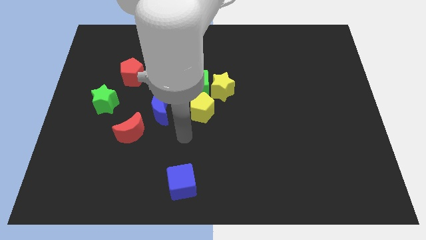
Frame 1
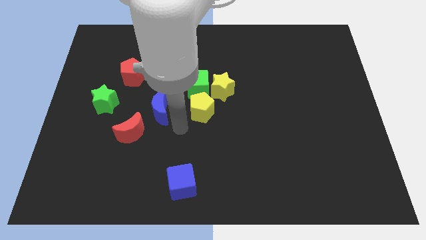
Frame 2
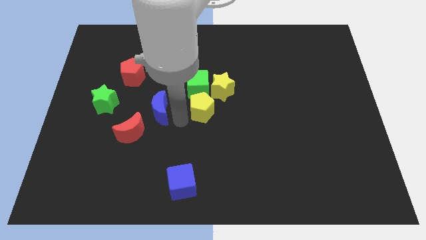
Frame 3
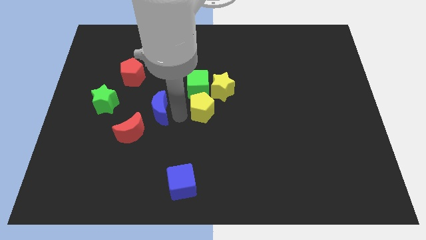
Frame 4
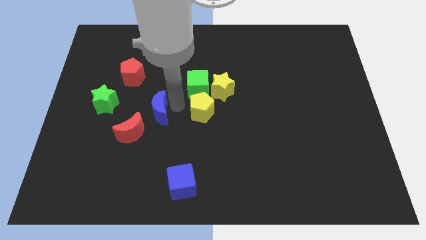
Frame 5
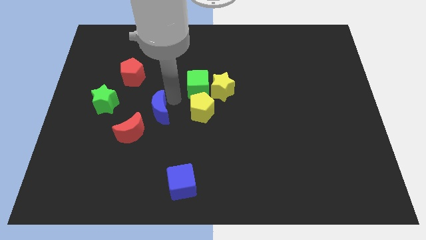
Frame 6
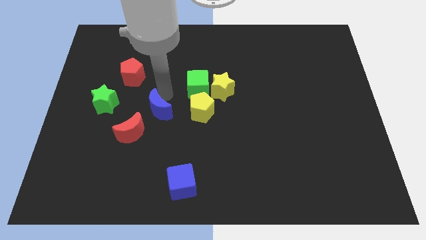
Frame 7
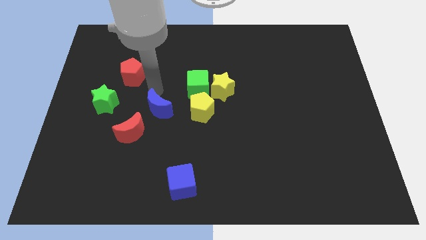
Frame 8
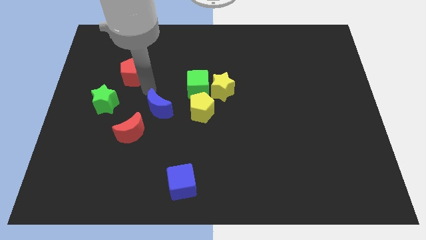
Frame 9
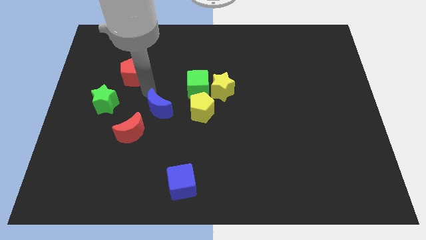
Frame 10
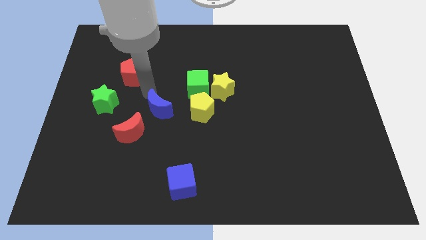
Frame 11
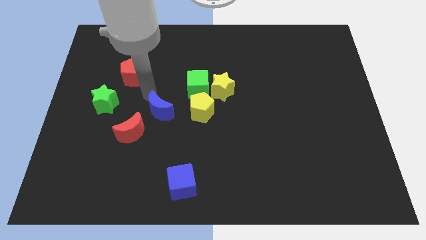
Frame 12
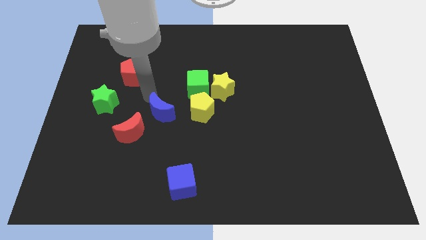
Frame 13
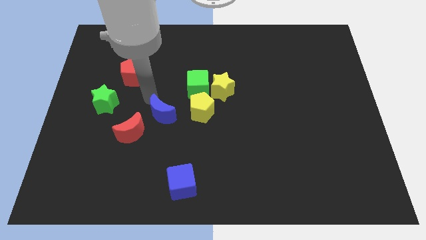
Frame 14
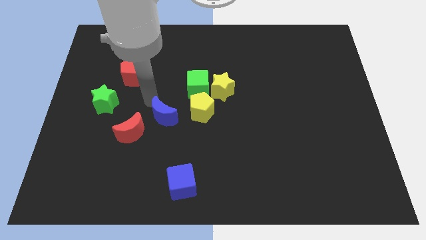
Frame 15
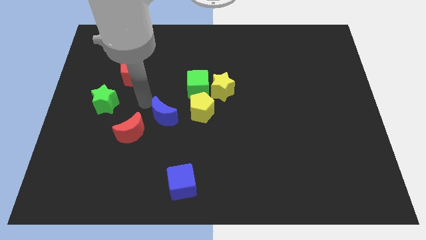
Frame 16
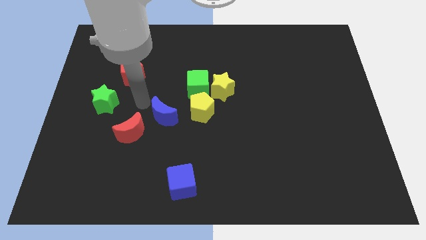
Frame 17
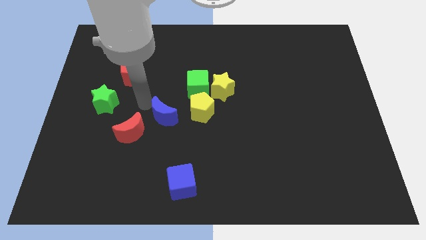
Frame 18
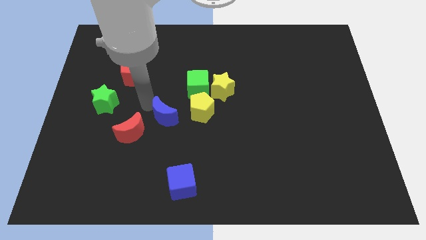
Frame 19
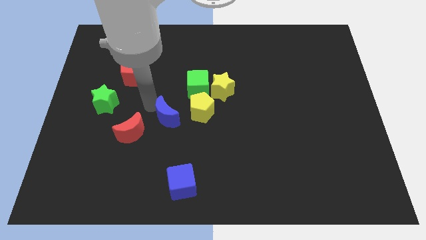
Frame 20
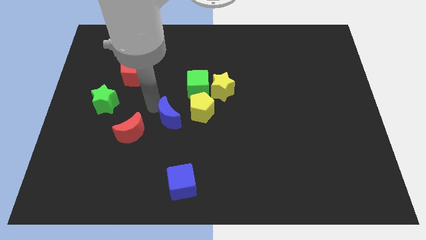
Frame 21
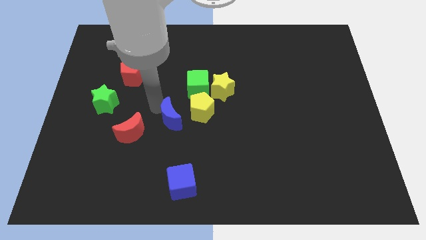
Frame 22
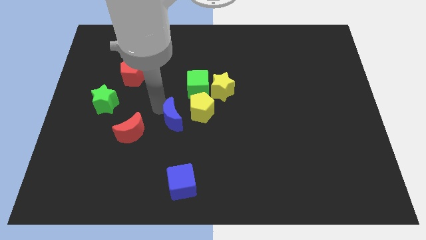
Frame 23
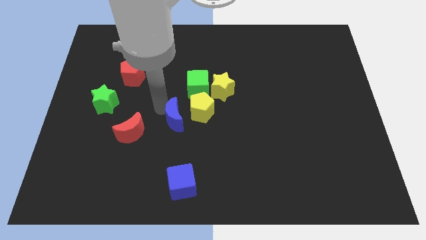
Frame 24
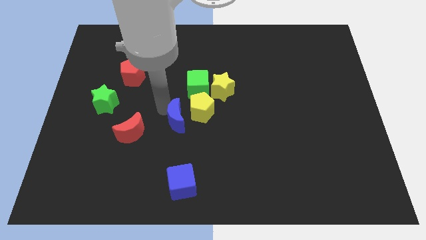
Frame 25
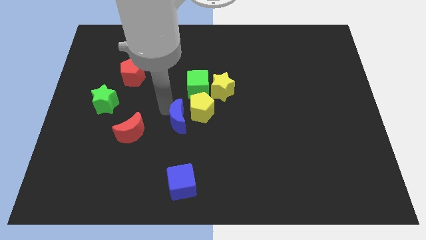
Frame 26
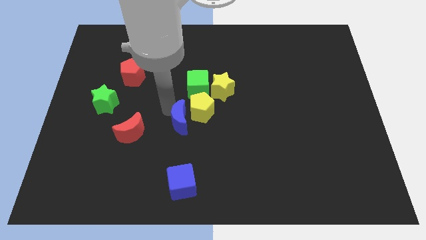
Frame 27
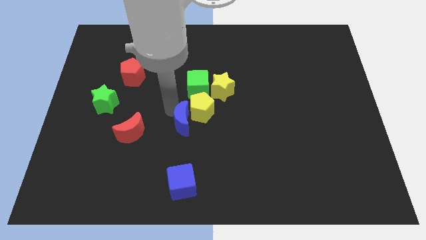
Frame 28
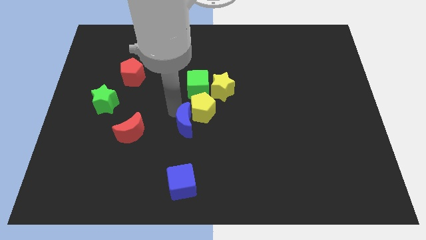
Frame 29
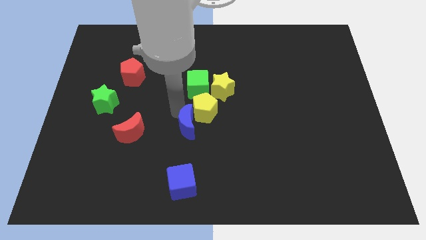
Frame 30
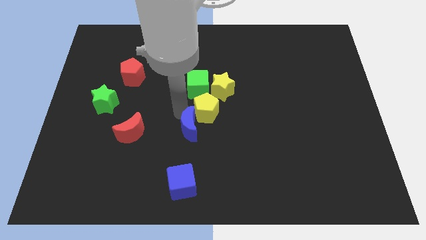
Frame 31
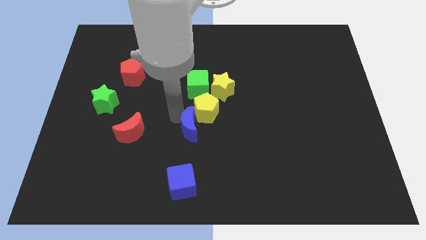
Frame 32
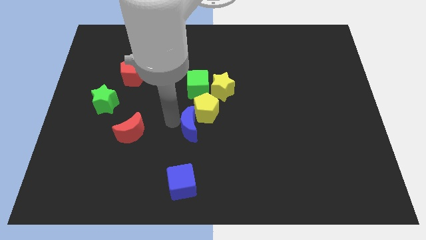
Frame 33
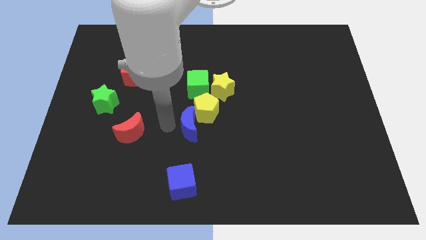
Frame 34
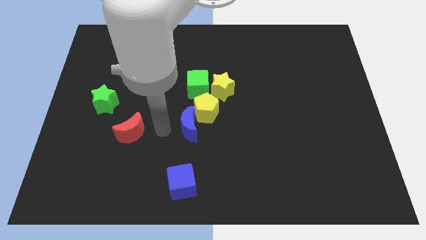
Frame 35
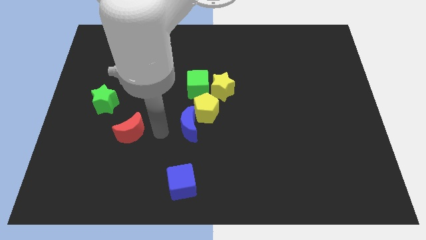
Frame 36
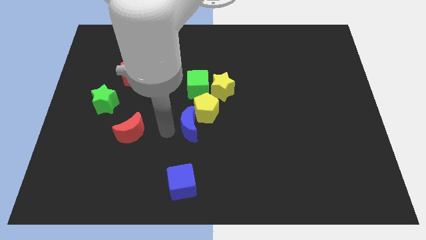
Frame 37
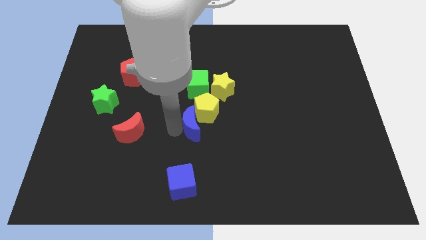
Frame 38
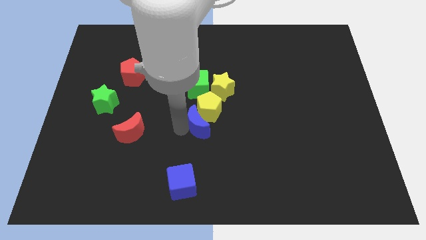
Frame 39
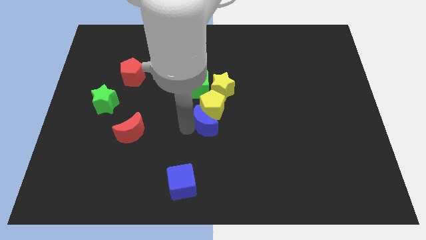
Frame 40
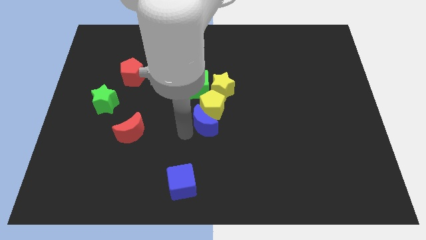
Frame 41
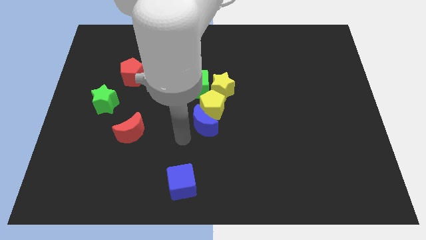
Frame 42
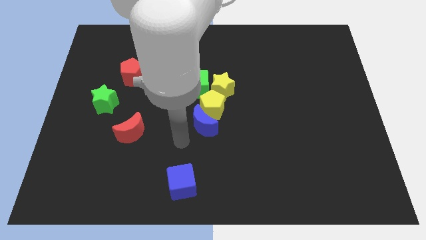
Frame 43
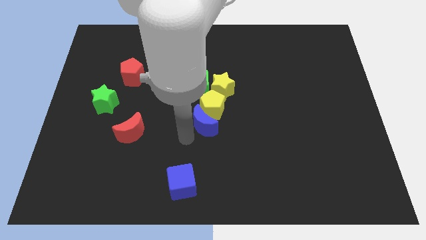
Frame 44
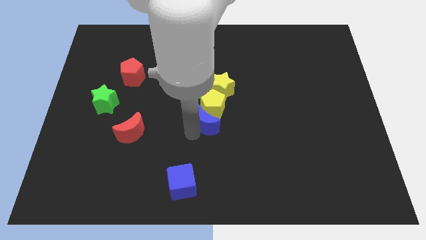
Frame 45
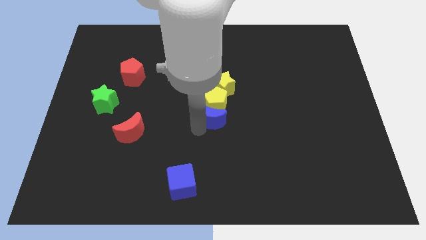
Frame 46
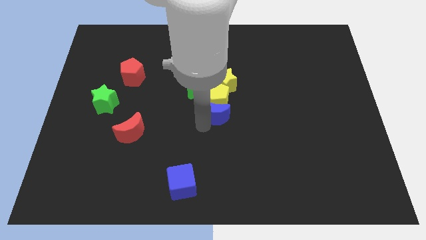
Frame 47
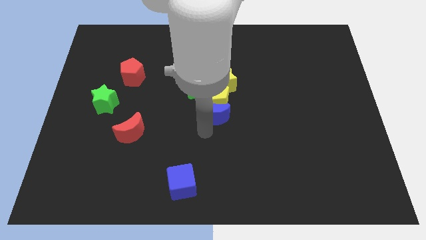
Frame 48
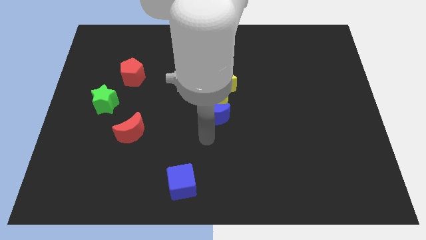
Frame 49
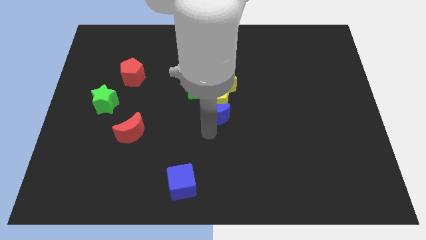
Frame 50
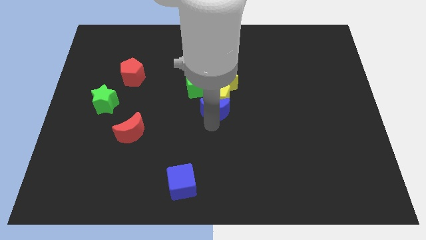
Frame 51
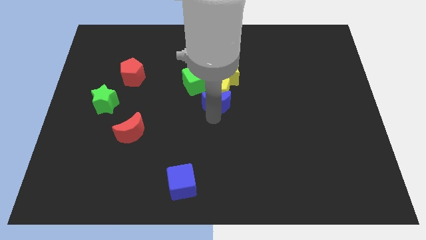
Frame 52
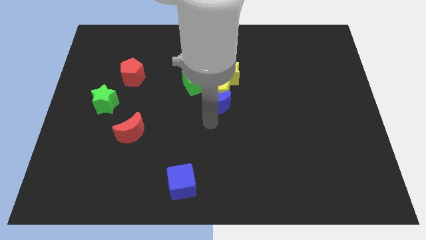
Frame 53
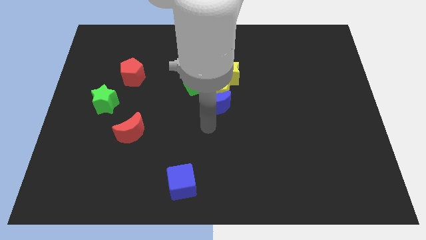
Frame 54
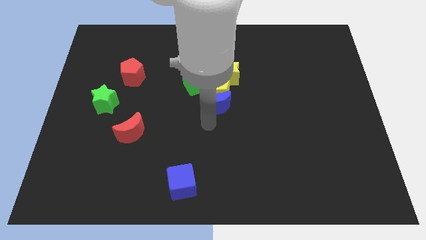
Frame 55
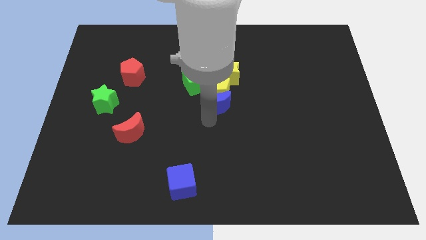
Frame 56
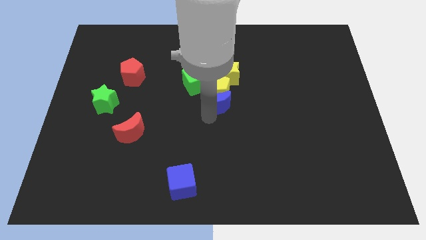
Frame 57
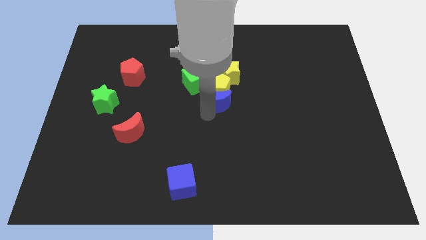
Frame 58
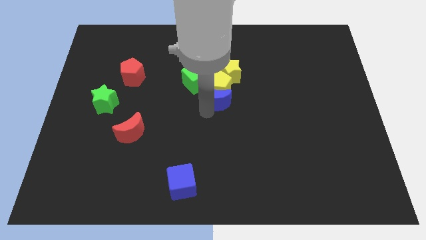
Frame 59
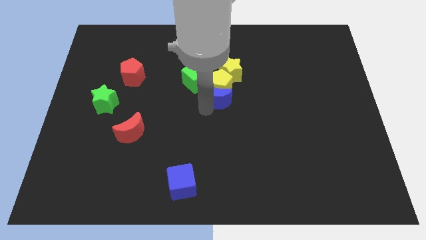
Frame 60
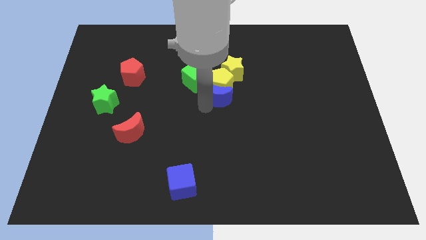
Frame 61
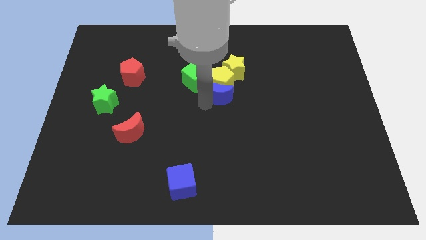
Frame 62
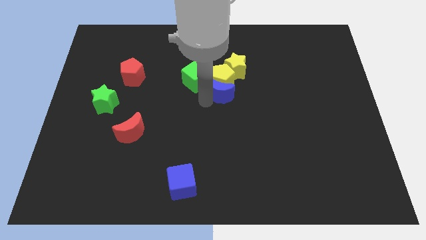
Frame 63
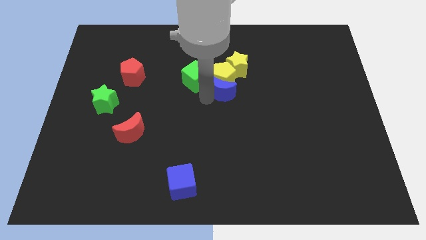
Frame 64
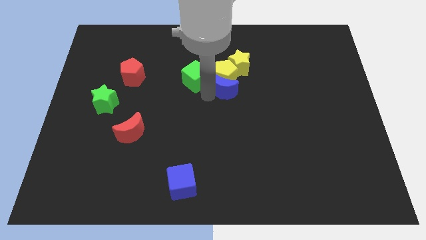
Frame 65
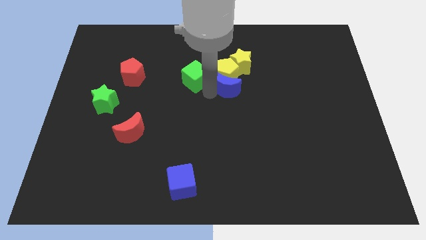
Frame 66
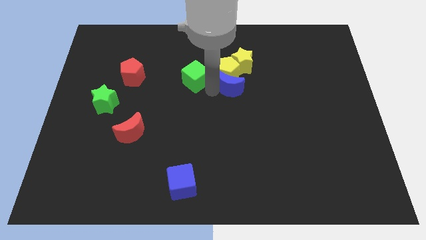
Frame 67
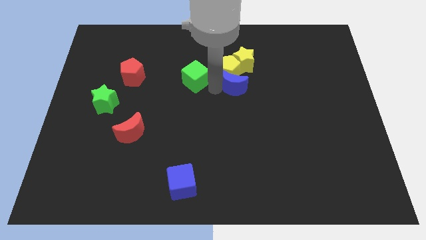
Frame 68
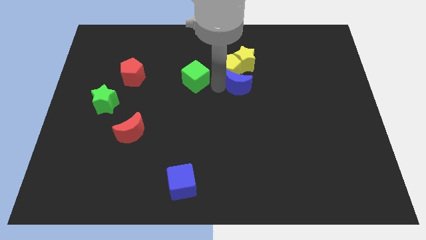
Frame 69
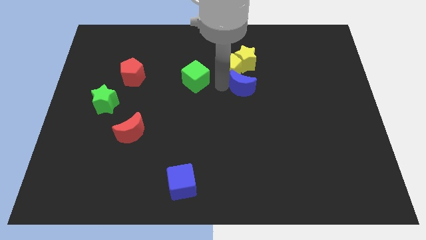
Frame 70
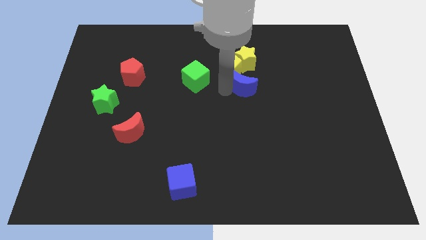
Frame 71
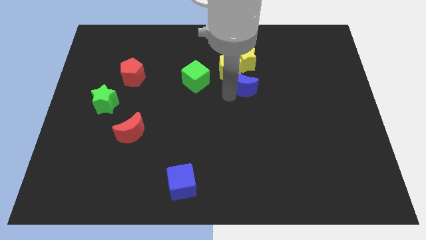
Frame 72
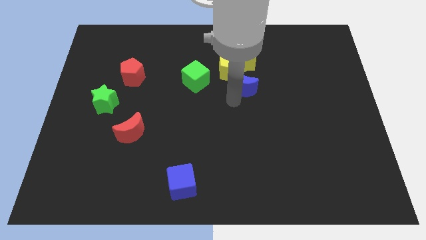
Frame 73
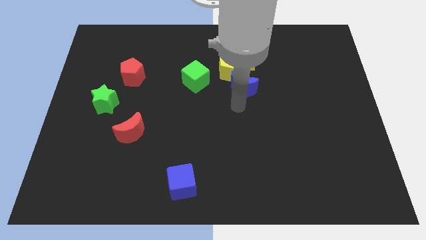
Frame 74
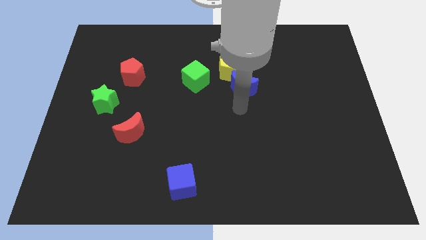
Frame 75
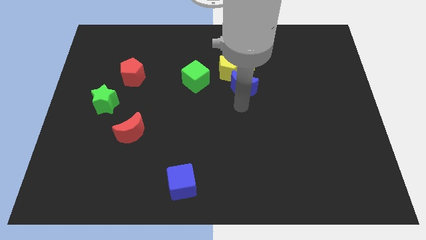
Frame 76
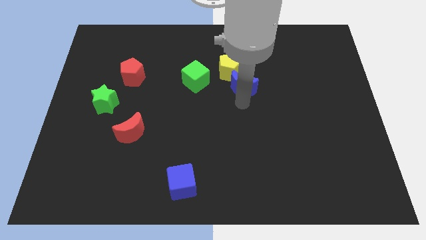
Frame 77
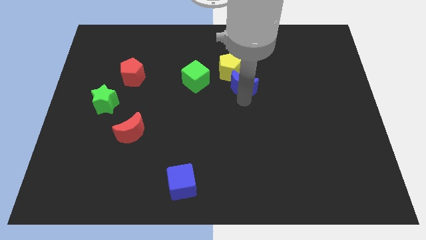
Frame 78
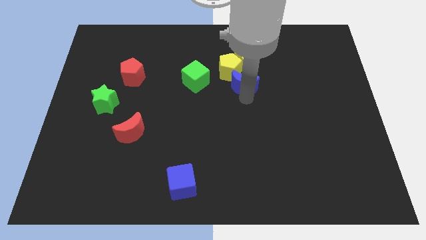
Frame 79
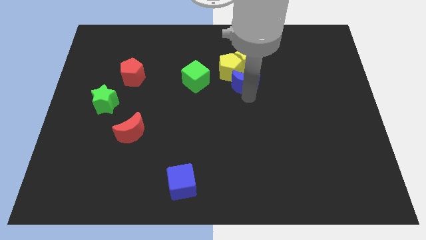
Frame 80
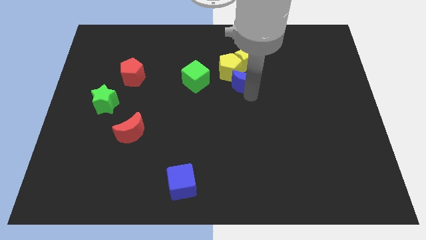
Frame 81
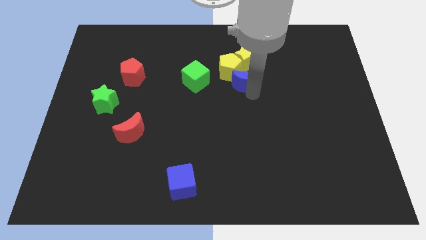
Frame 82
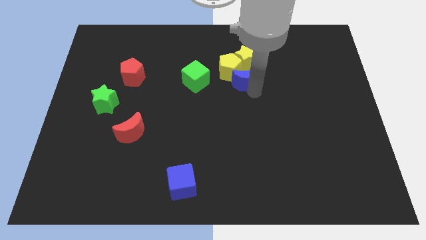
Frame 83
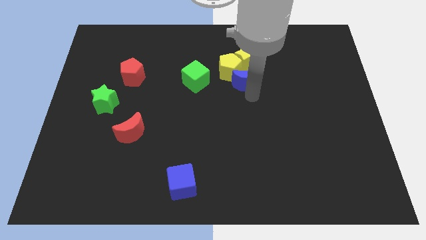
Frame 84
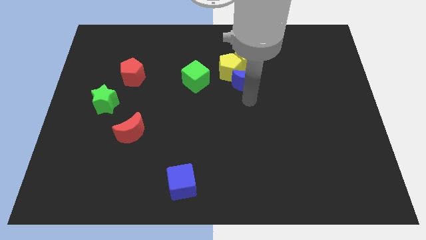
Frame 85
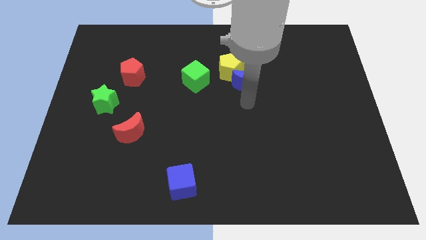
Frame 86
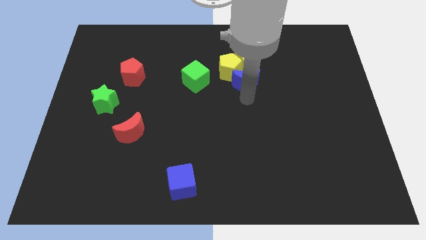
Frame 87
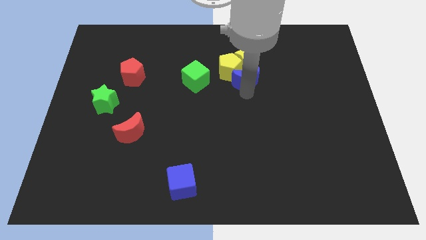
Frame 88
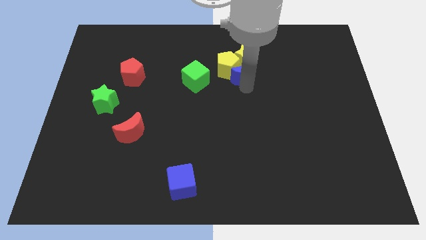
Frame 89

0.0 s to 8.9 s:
slide the blue moon next to the yellow star
